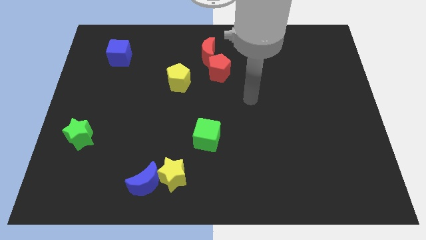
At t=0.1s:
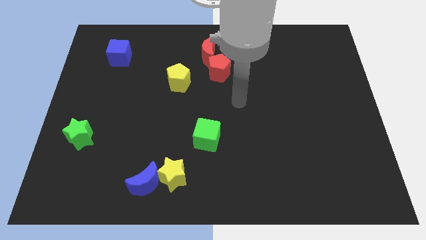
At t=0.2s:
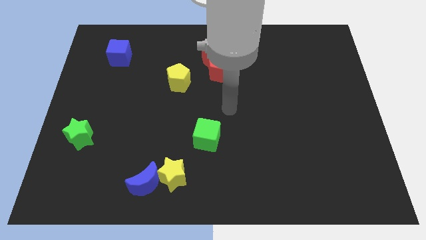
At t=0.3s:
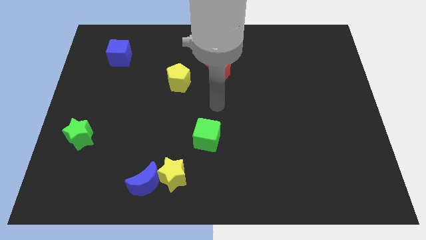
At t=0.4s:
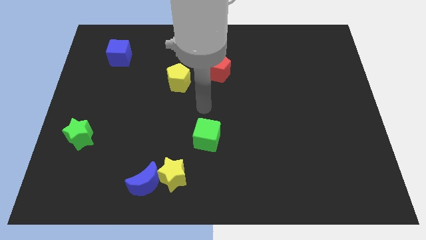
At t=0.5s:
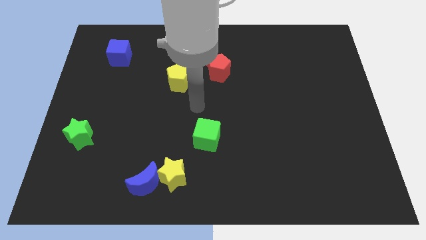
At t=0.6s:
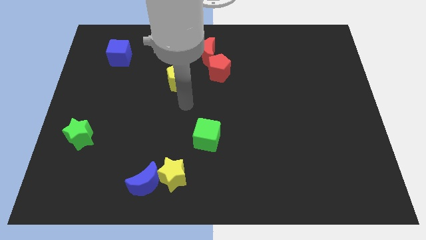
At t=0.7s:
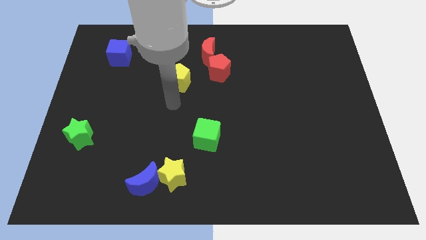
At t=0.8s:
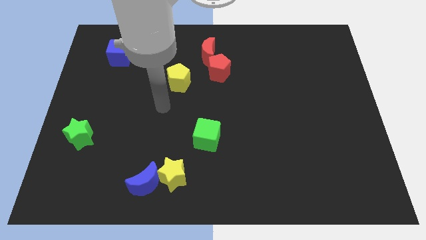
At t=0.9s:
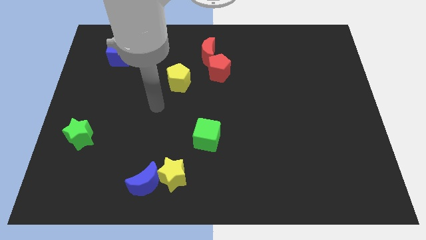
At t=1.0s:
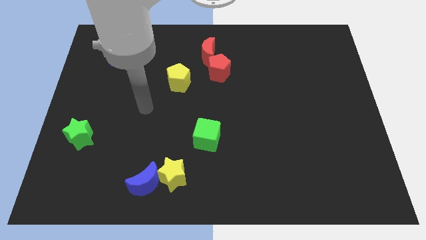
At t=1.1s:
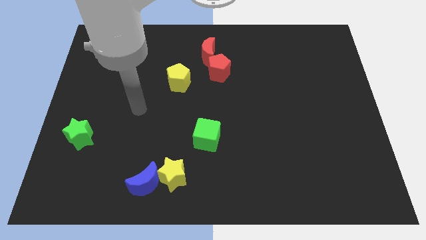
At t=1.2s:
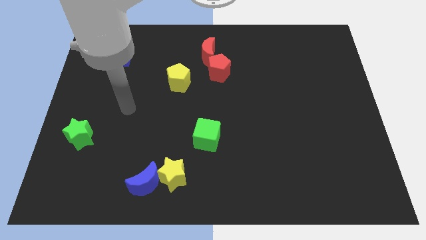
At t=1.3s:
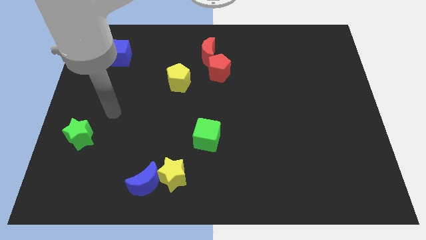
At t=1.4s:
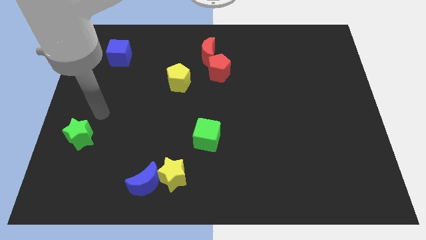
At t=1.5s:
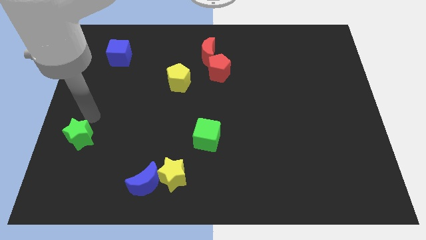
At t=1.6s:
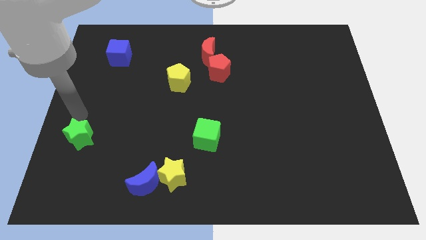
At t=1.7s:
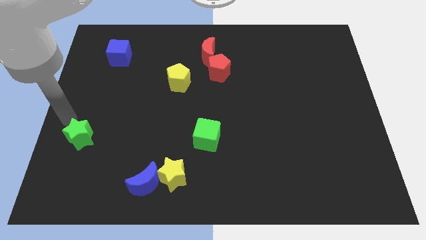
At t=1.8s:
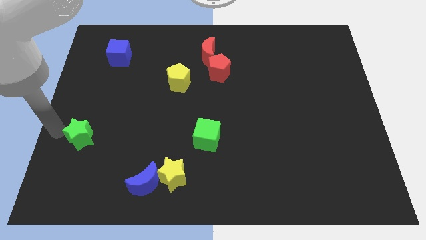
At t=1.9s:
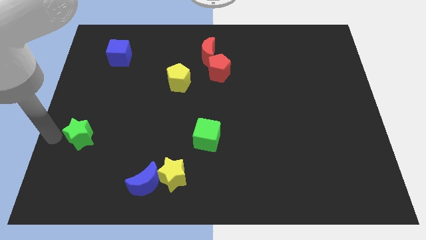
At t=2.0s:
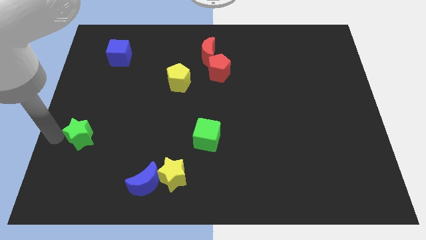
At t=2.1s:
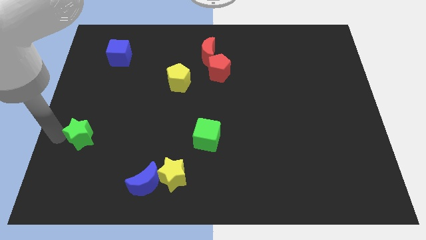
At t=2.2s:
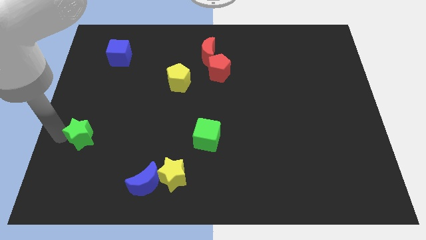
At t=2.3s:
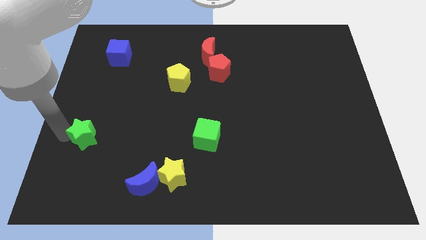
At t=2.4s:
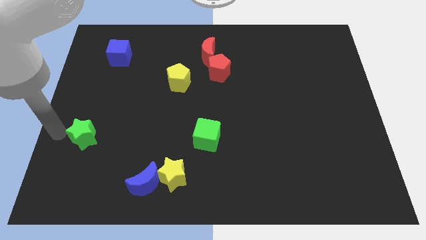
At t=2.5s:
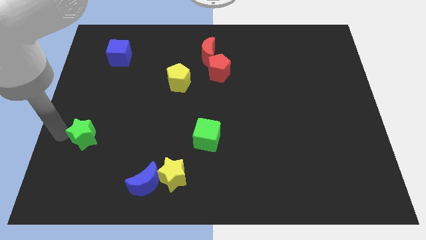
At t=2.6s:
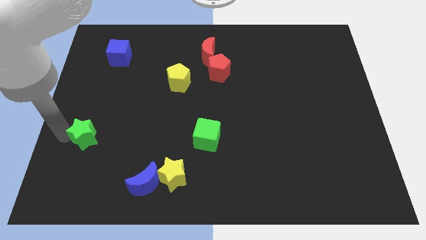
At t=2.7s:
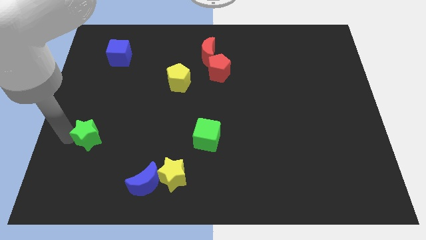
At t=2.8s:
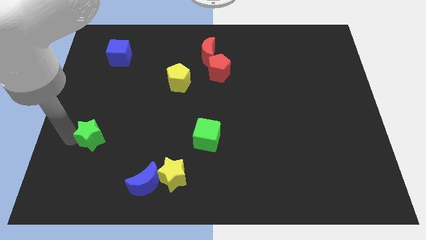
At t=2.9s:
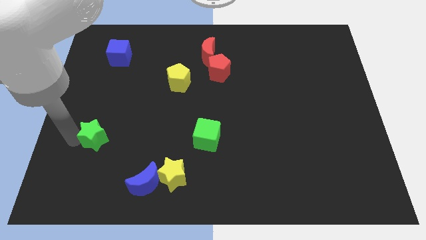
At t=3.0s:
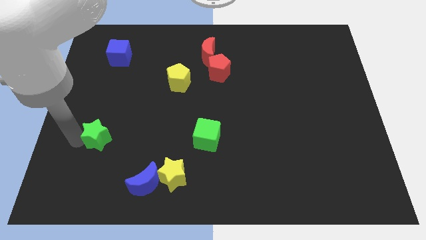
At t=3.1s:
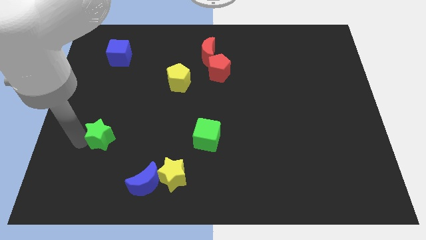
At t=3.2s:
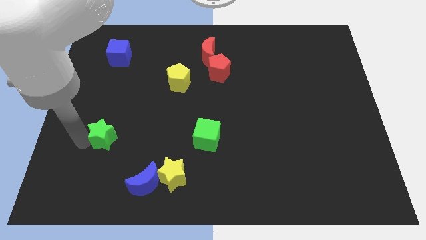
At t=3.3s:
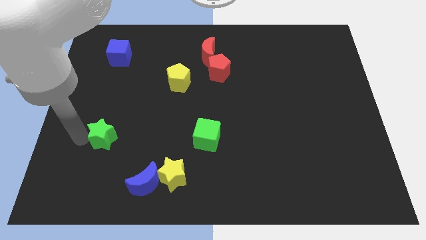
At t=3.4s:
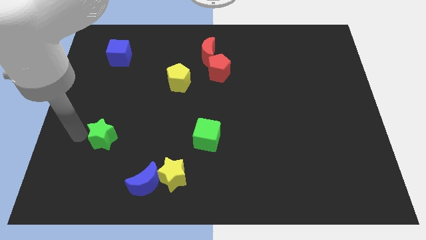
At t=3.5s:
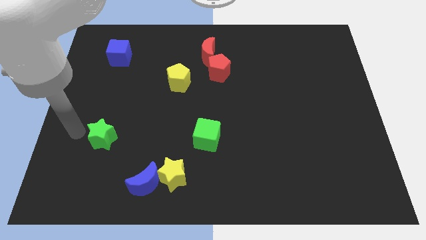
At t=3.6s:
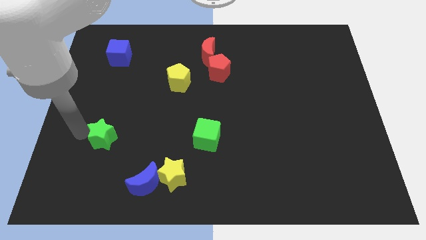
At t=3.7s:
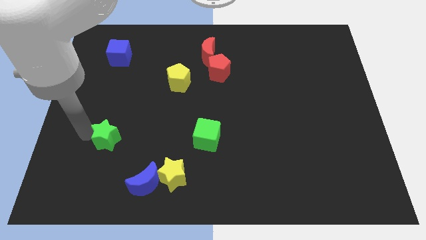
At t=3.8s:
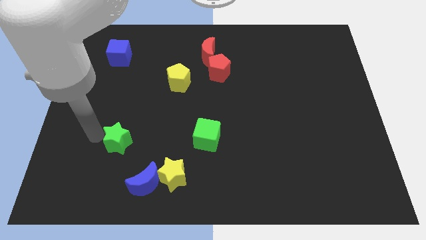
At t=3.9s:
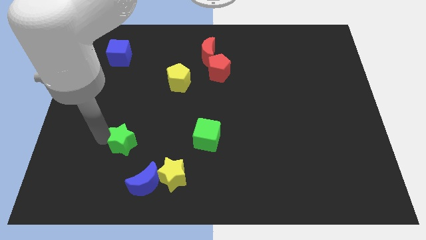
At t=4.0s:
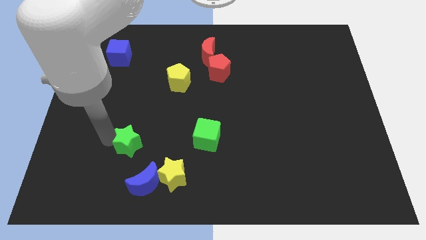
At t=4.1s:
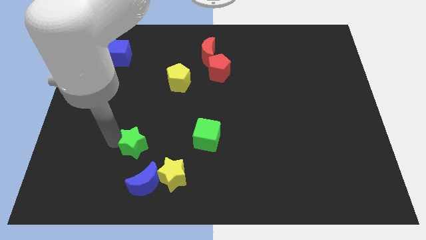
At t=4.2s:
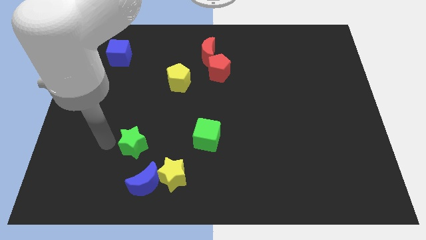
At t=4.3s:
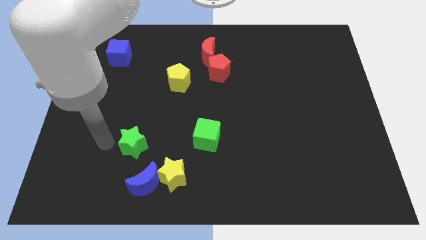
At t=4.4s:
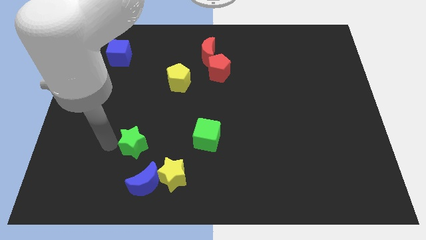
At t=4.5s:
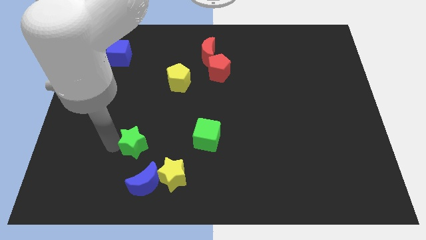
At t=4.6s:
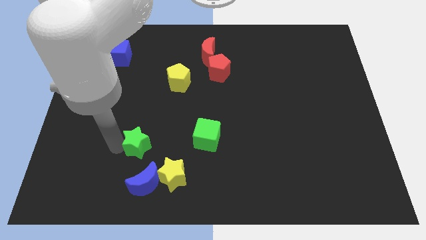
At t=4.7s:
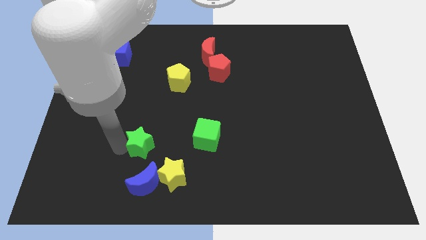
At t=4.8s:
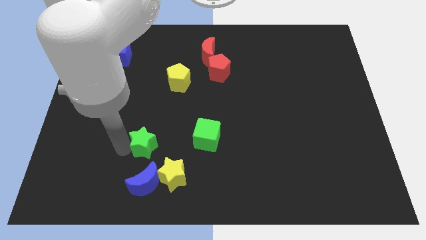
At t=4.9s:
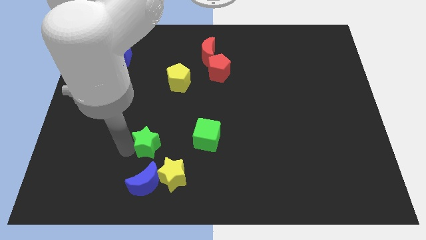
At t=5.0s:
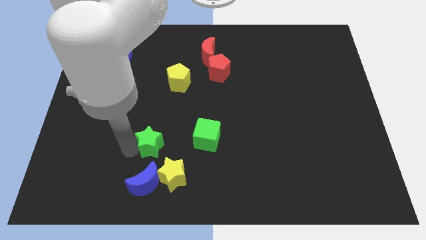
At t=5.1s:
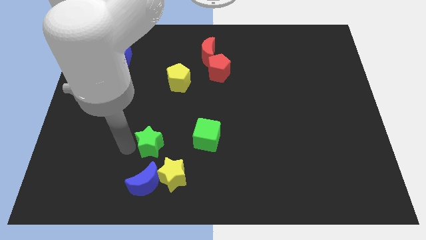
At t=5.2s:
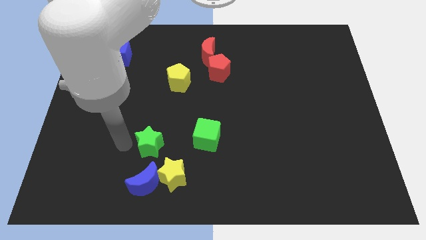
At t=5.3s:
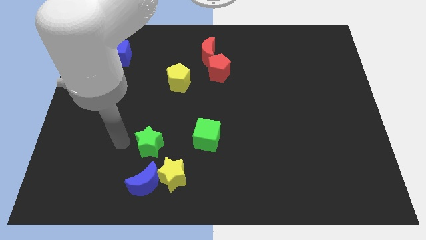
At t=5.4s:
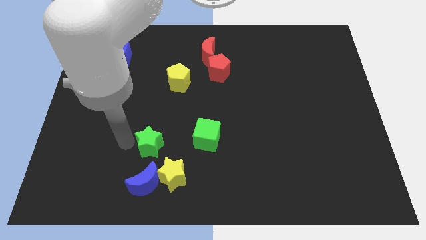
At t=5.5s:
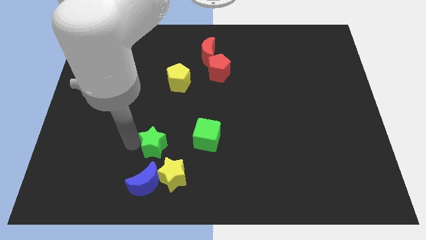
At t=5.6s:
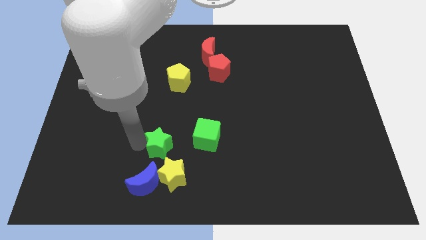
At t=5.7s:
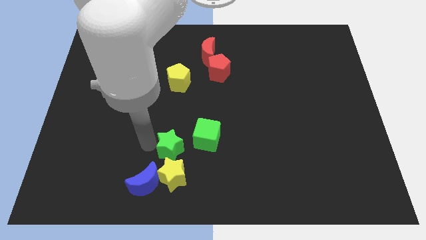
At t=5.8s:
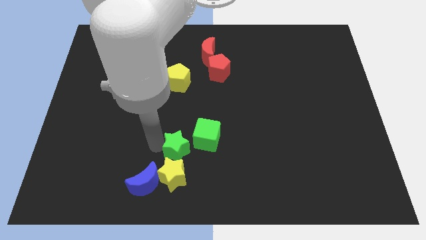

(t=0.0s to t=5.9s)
slide the green star diagonally up and to the right of the yellow star

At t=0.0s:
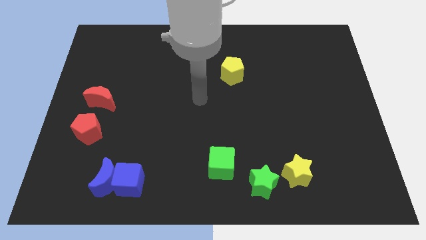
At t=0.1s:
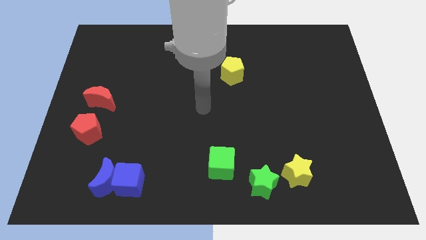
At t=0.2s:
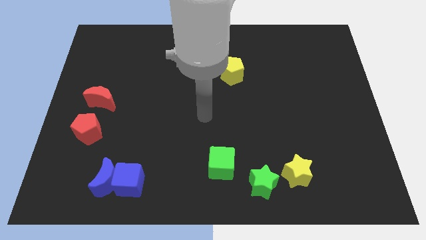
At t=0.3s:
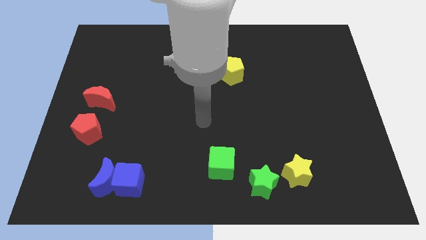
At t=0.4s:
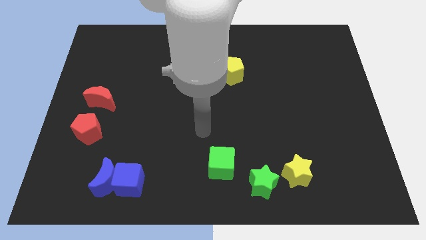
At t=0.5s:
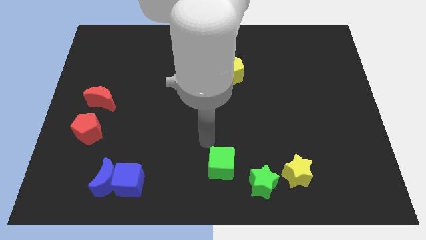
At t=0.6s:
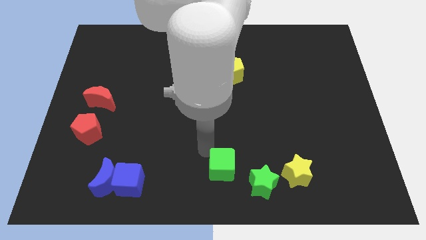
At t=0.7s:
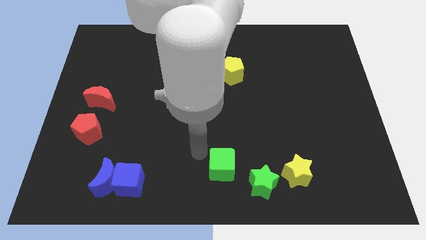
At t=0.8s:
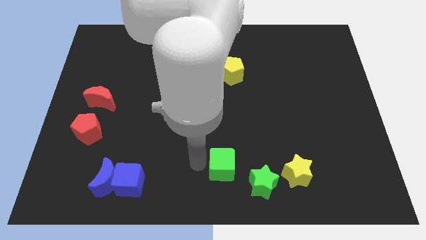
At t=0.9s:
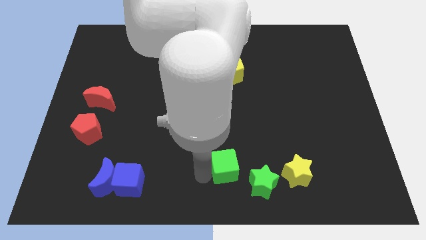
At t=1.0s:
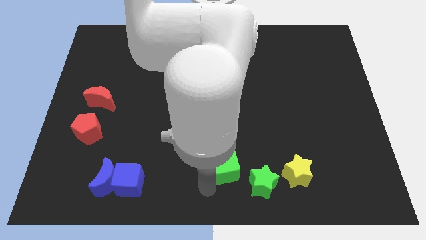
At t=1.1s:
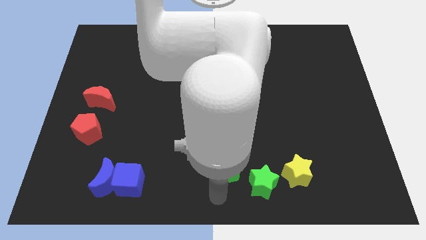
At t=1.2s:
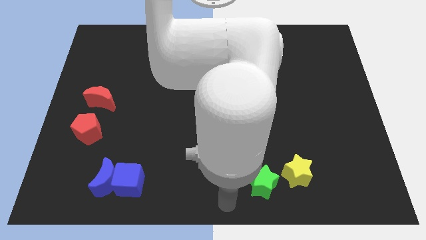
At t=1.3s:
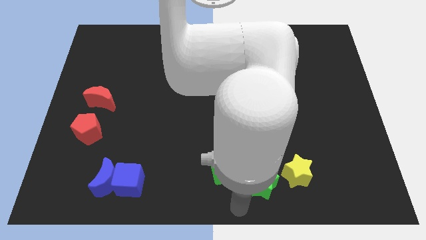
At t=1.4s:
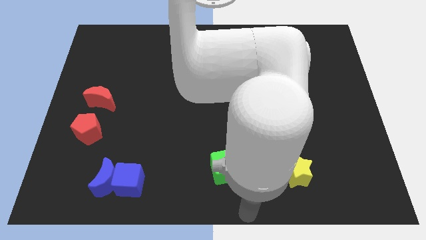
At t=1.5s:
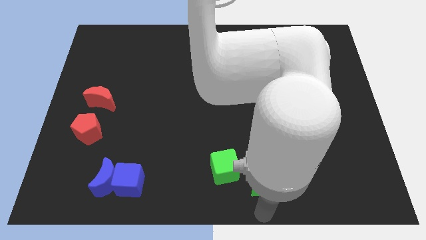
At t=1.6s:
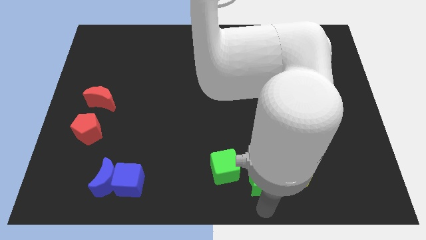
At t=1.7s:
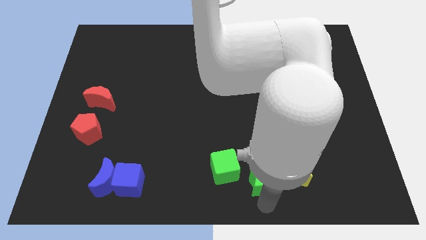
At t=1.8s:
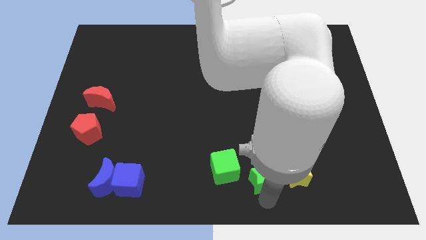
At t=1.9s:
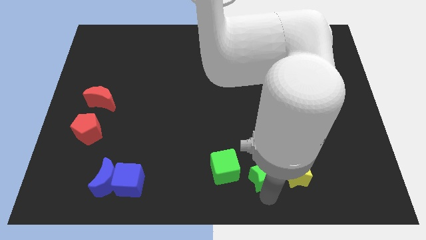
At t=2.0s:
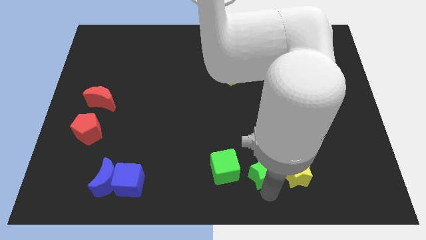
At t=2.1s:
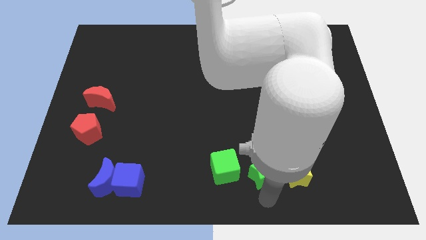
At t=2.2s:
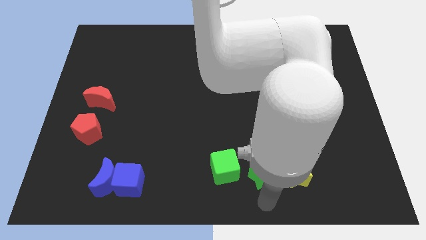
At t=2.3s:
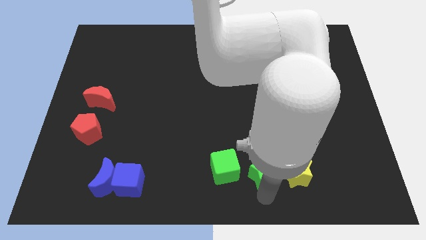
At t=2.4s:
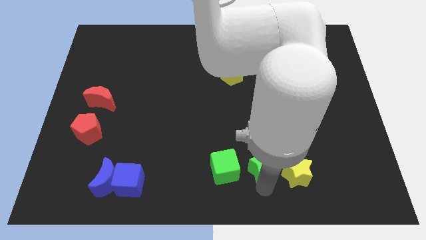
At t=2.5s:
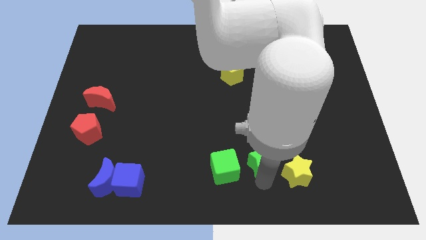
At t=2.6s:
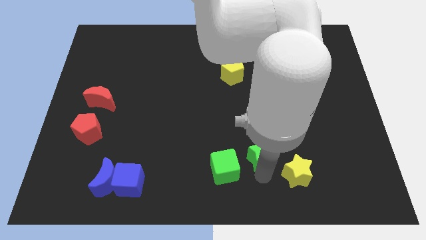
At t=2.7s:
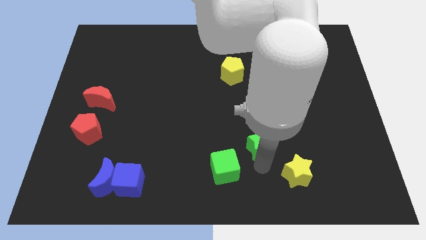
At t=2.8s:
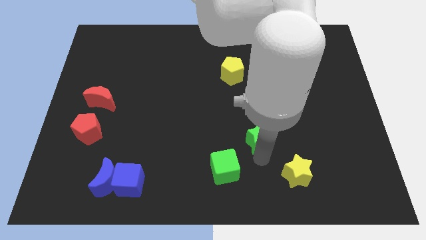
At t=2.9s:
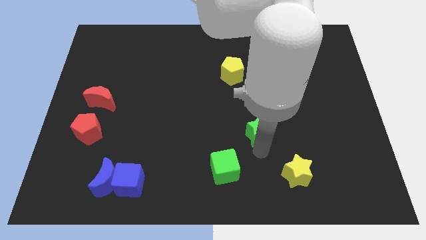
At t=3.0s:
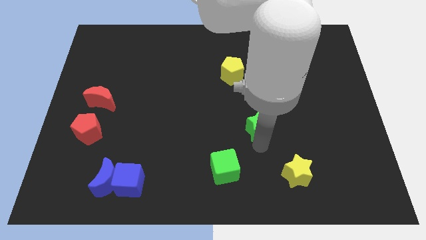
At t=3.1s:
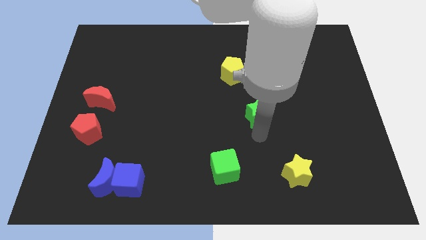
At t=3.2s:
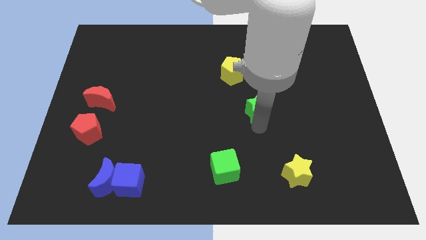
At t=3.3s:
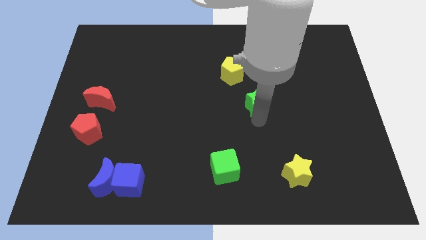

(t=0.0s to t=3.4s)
push the green star to the bottom right of the yellow pentagon
